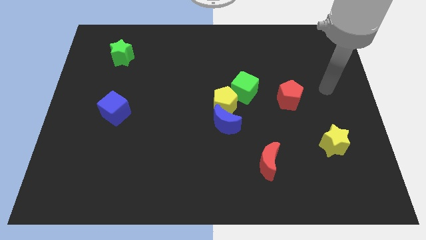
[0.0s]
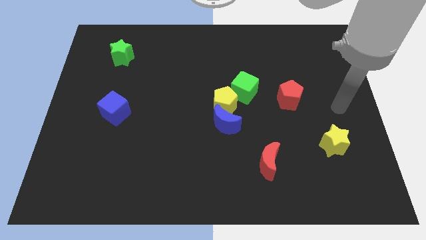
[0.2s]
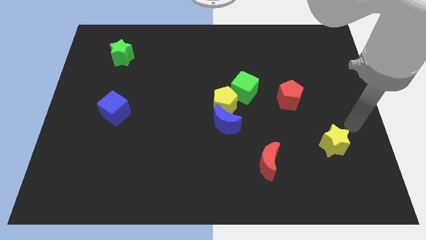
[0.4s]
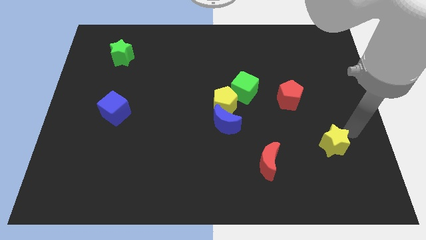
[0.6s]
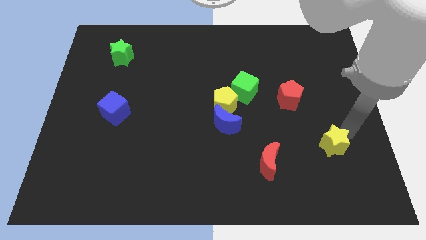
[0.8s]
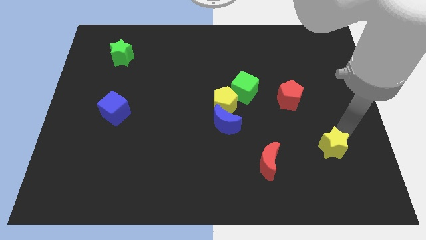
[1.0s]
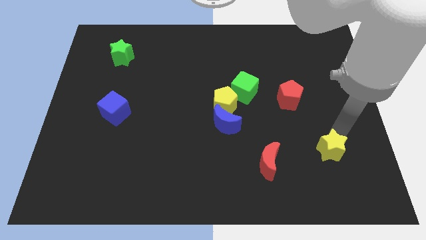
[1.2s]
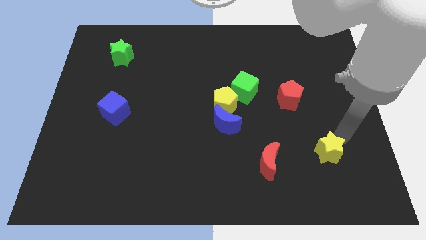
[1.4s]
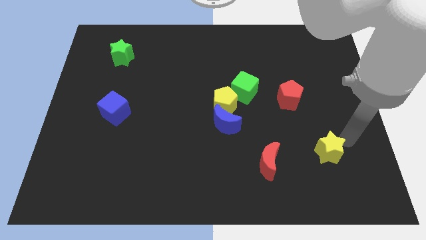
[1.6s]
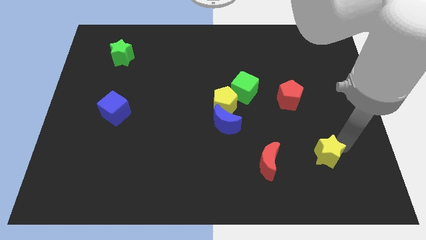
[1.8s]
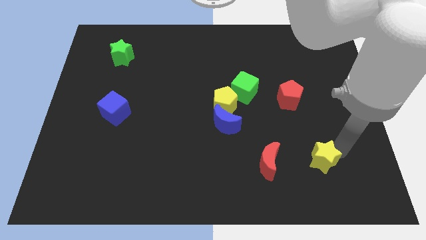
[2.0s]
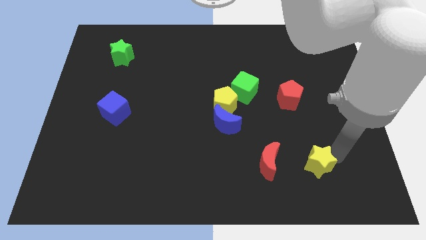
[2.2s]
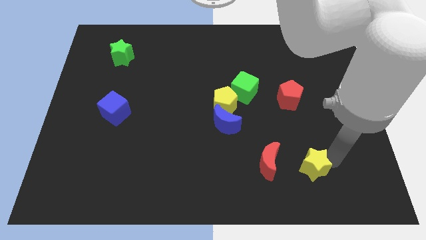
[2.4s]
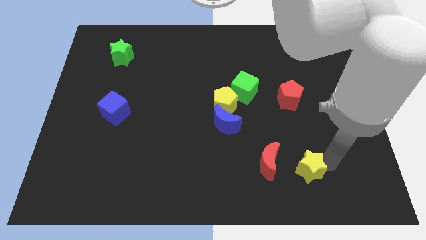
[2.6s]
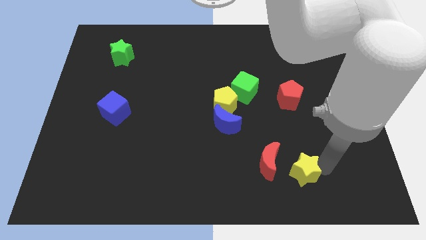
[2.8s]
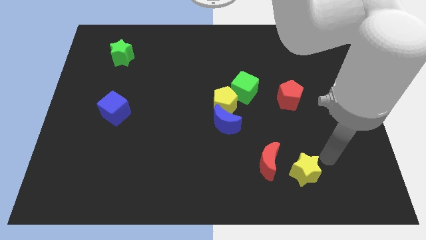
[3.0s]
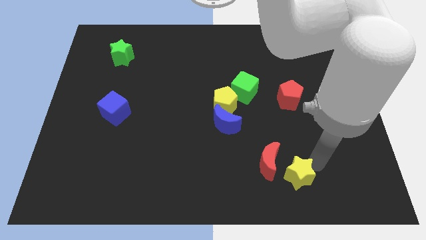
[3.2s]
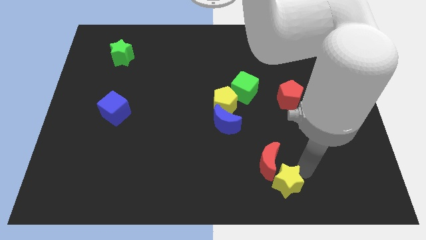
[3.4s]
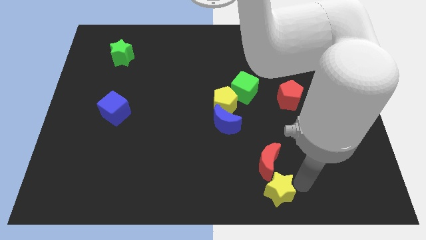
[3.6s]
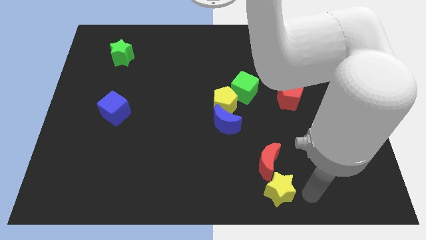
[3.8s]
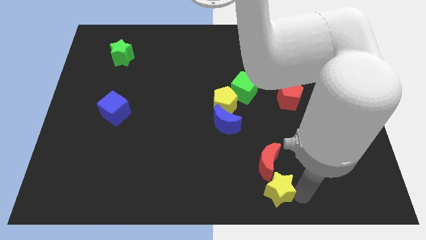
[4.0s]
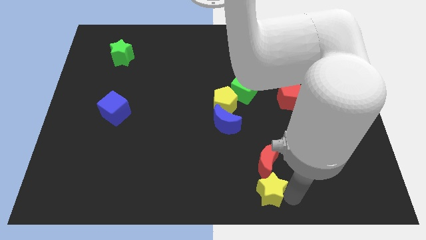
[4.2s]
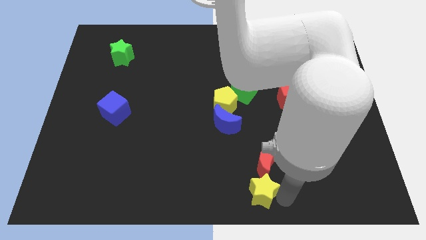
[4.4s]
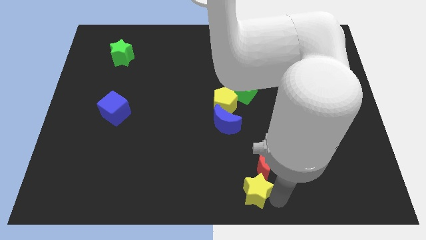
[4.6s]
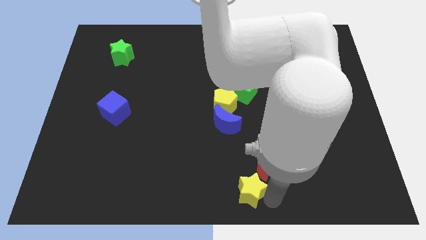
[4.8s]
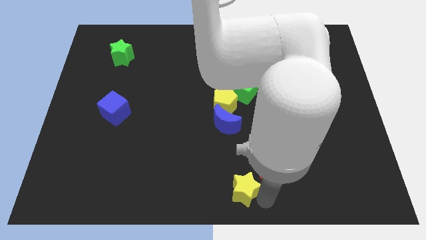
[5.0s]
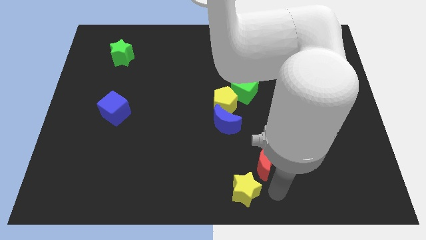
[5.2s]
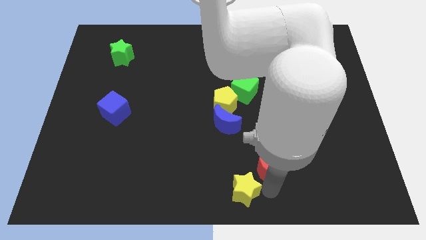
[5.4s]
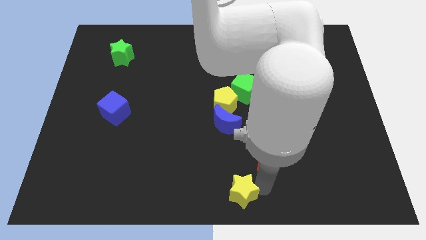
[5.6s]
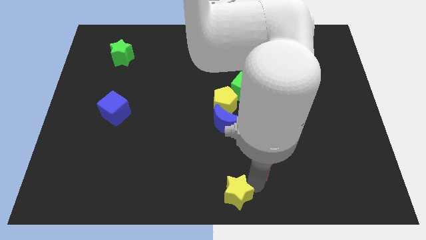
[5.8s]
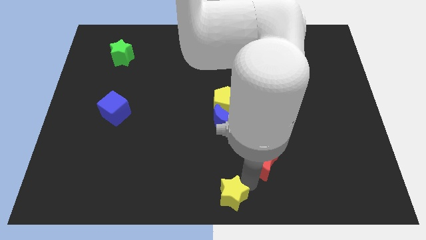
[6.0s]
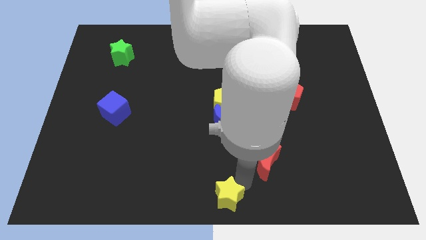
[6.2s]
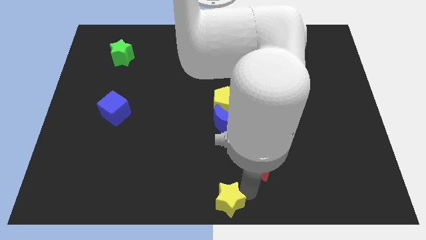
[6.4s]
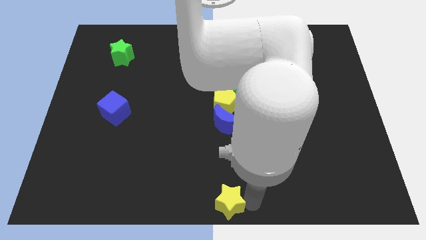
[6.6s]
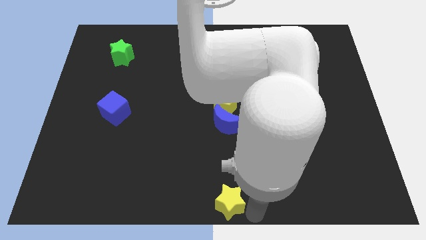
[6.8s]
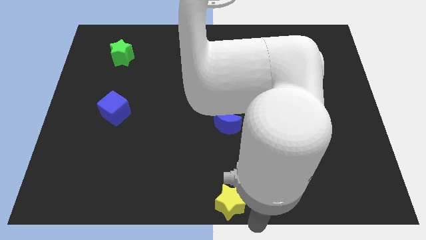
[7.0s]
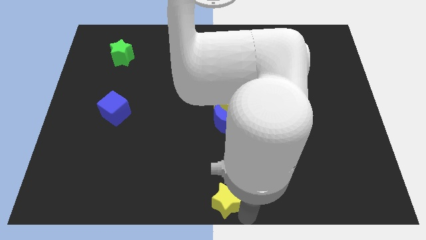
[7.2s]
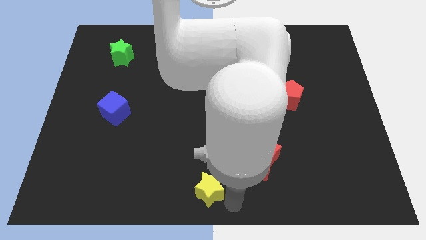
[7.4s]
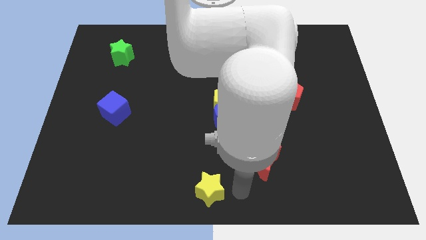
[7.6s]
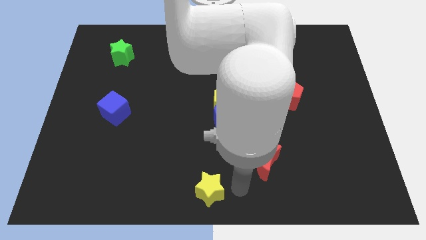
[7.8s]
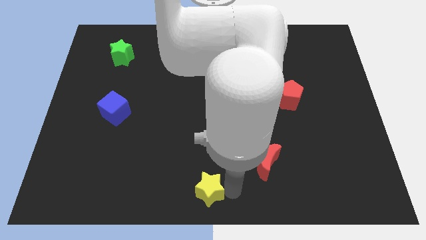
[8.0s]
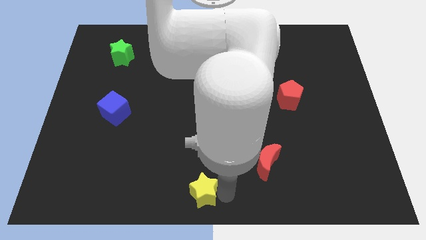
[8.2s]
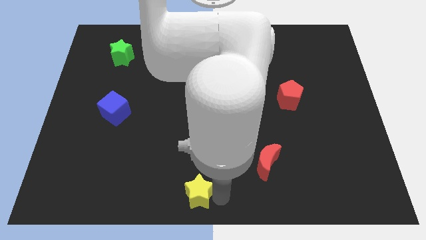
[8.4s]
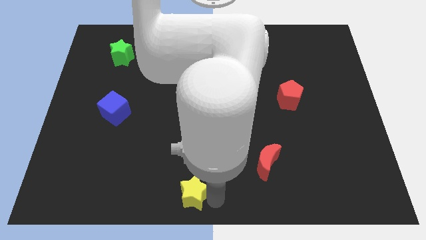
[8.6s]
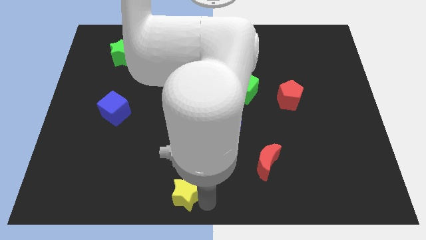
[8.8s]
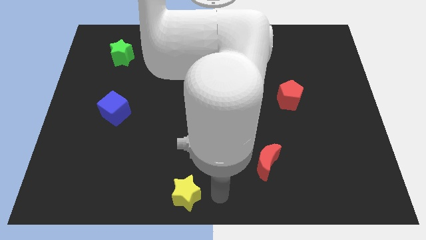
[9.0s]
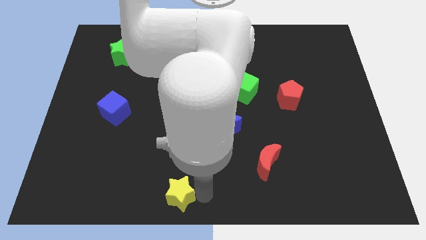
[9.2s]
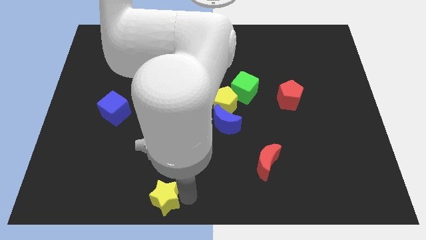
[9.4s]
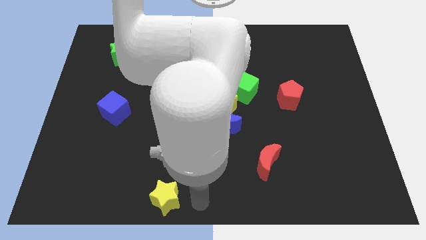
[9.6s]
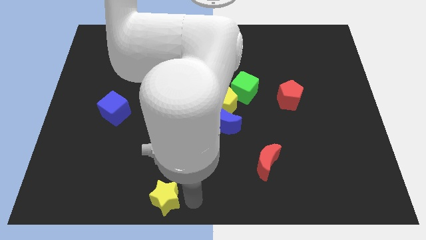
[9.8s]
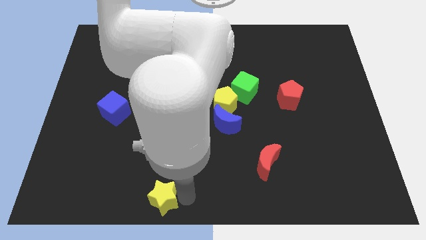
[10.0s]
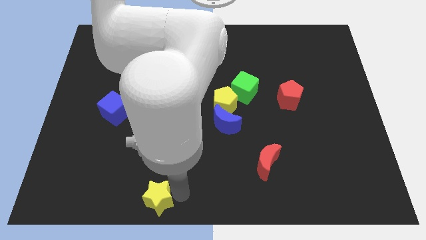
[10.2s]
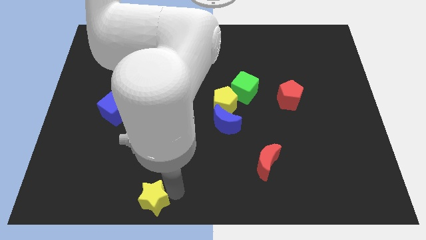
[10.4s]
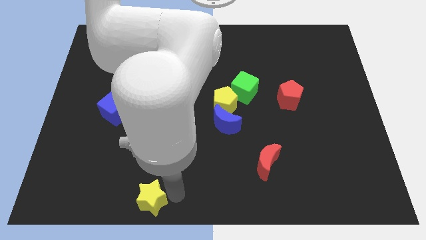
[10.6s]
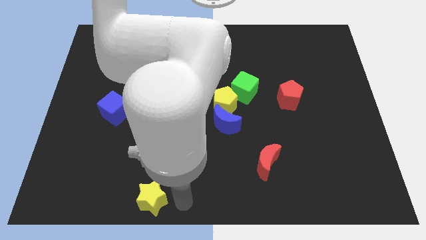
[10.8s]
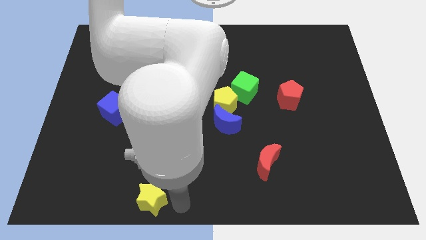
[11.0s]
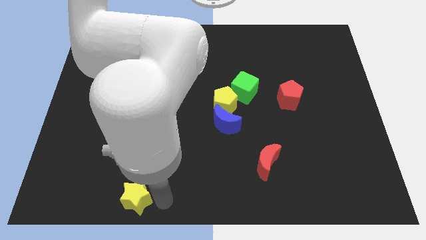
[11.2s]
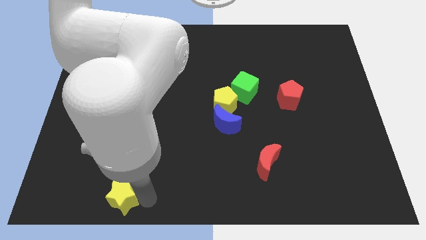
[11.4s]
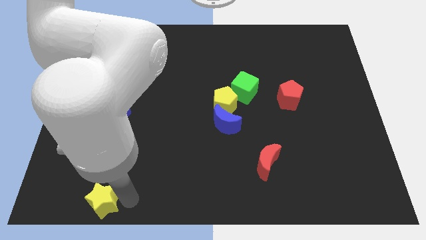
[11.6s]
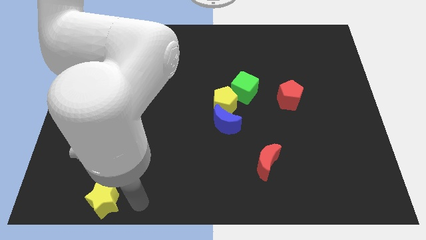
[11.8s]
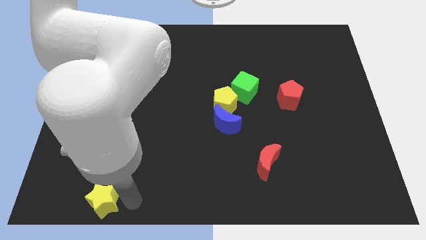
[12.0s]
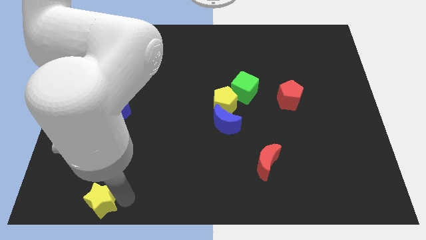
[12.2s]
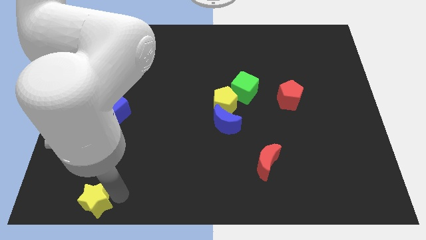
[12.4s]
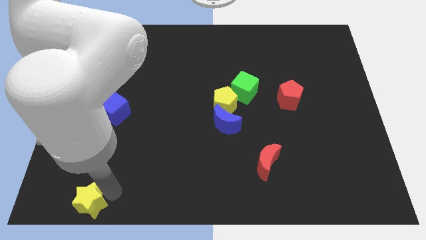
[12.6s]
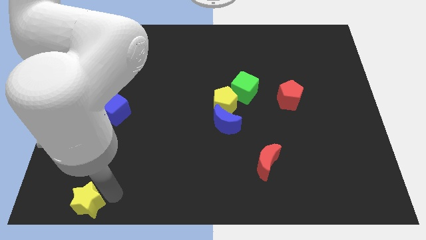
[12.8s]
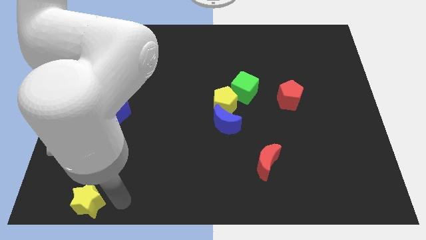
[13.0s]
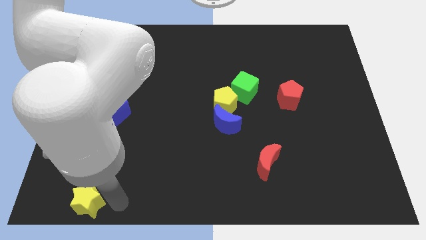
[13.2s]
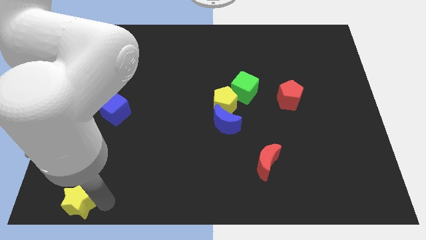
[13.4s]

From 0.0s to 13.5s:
push the yellow star to the bottom left
